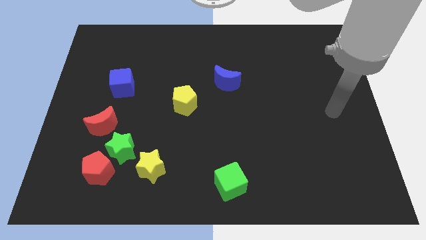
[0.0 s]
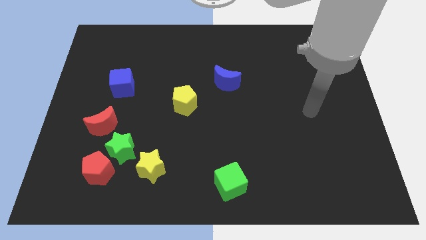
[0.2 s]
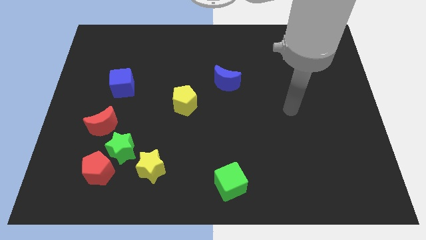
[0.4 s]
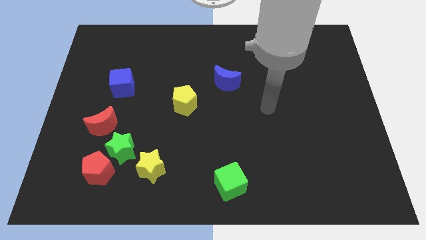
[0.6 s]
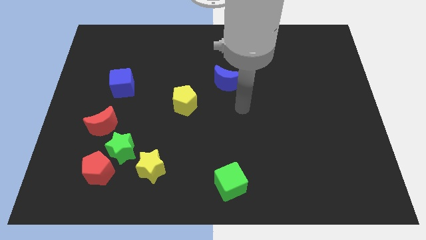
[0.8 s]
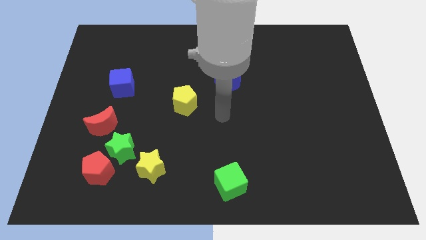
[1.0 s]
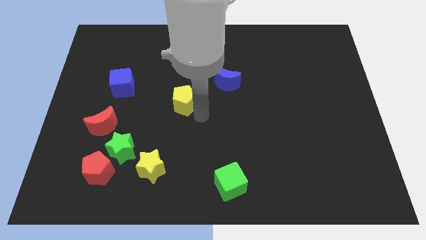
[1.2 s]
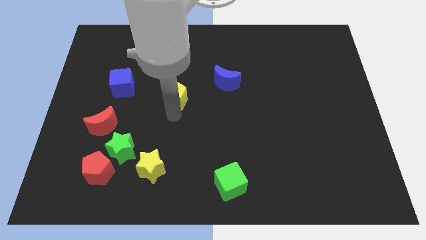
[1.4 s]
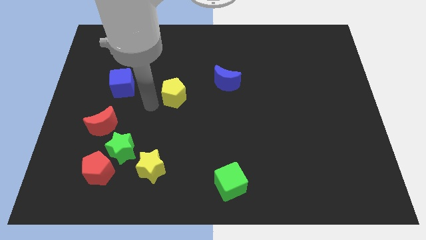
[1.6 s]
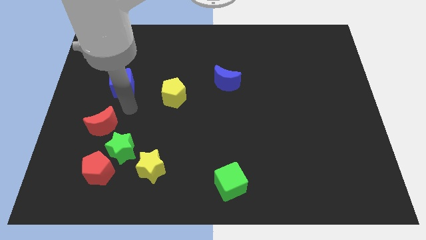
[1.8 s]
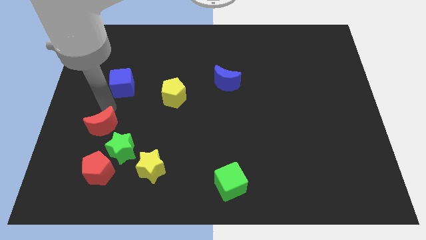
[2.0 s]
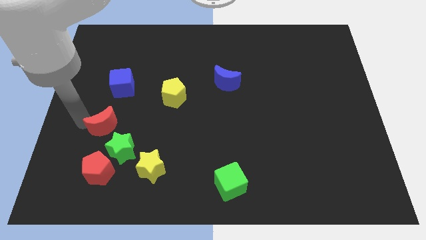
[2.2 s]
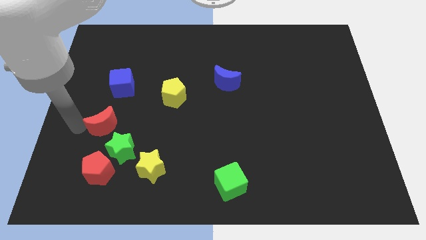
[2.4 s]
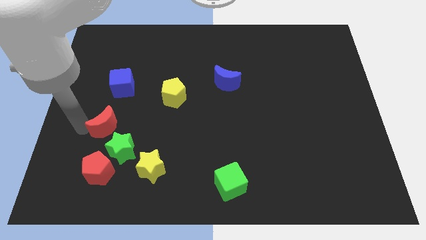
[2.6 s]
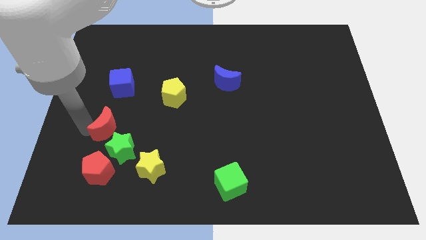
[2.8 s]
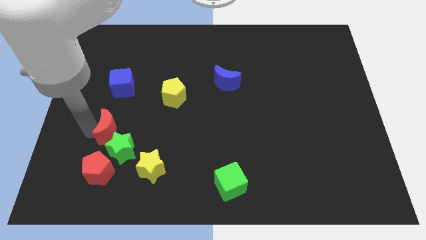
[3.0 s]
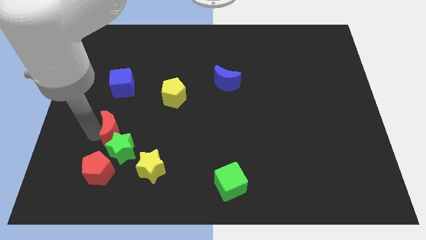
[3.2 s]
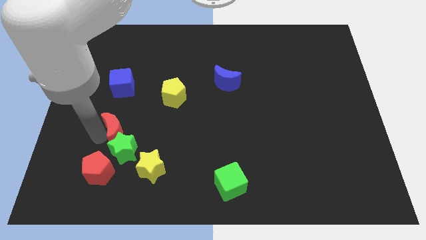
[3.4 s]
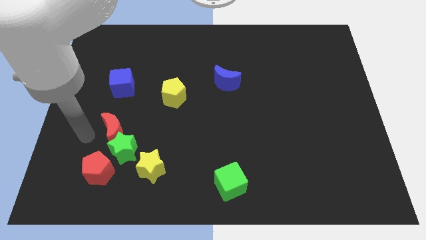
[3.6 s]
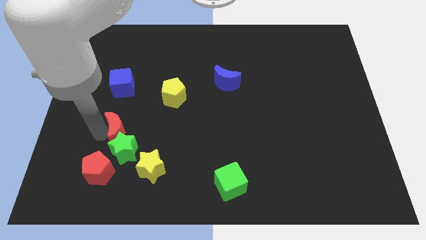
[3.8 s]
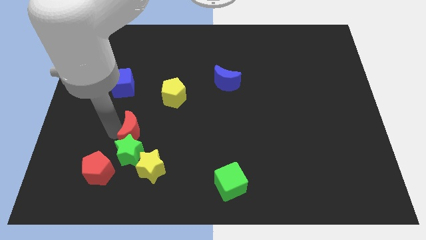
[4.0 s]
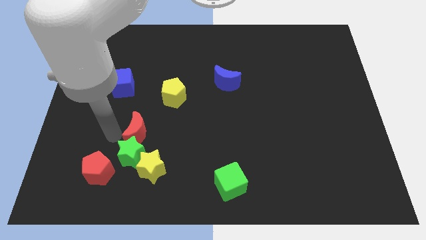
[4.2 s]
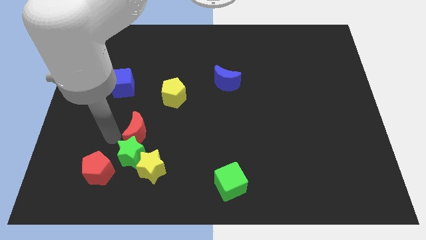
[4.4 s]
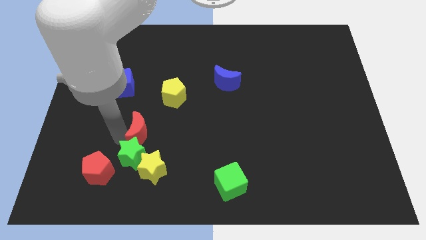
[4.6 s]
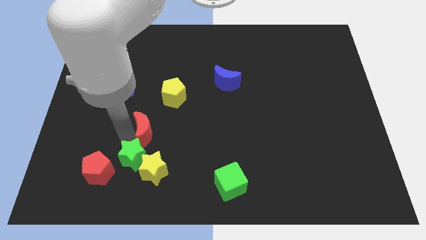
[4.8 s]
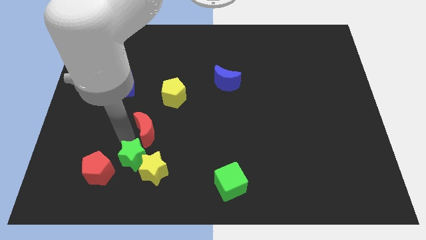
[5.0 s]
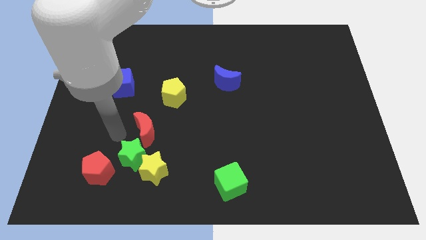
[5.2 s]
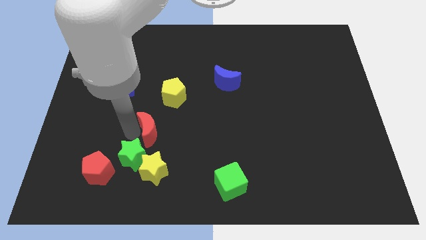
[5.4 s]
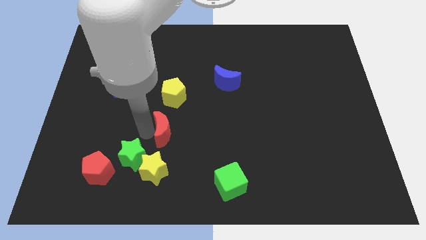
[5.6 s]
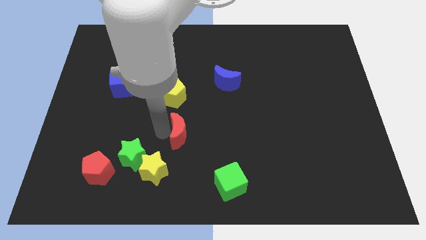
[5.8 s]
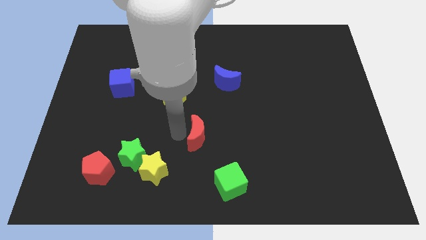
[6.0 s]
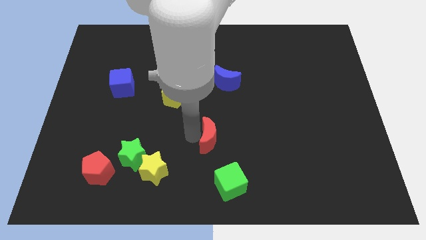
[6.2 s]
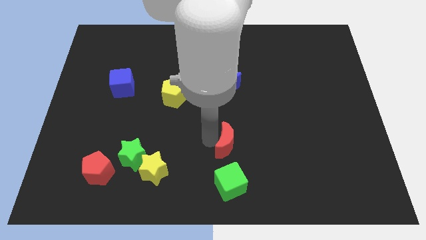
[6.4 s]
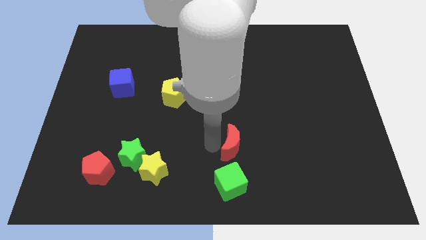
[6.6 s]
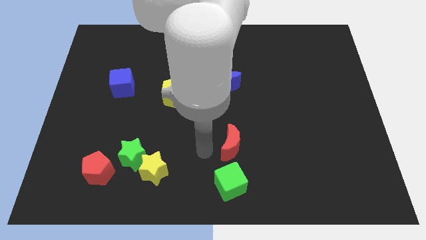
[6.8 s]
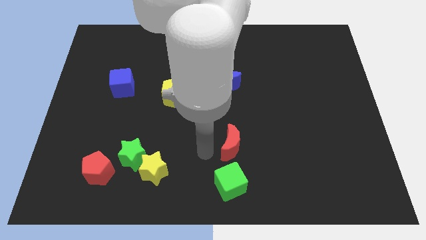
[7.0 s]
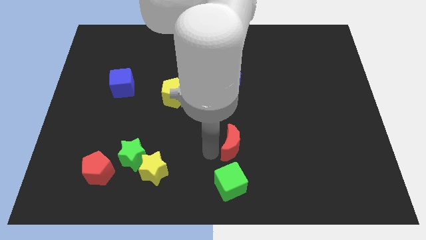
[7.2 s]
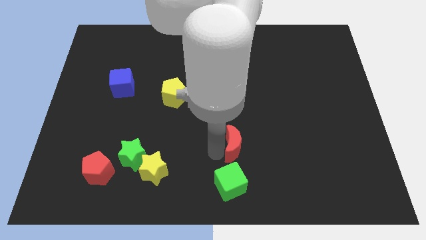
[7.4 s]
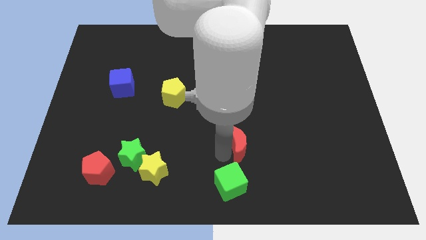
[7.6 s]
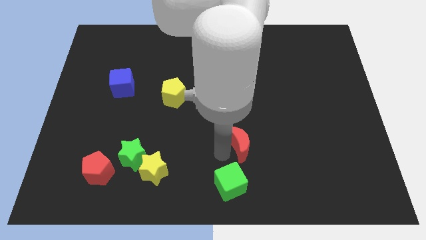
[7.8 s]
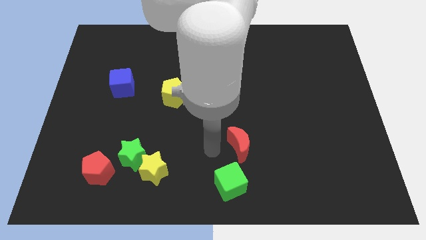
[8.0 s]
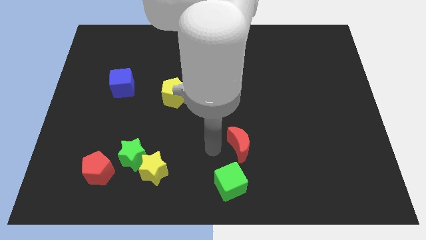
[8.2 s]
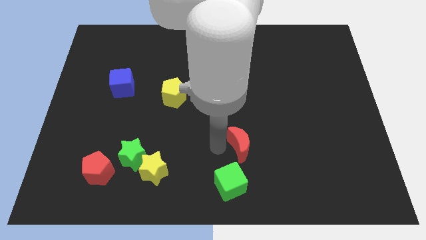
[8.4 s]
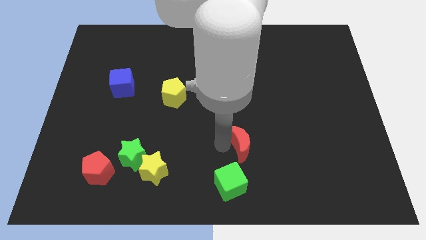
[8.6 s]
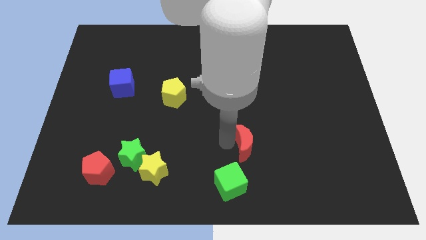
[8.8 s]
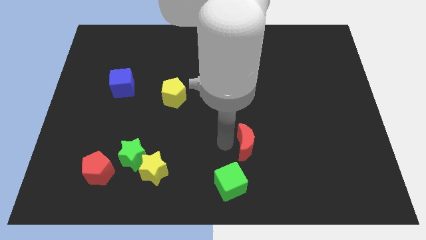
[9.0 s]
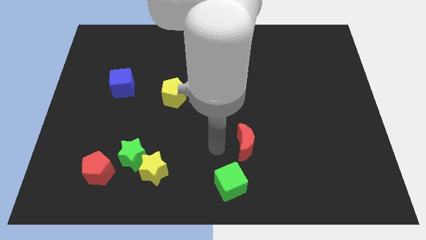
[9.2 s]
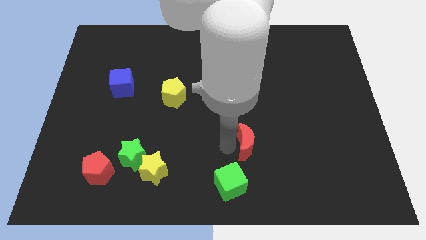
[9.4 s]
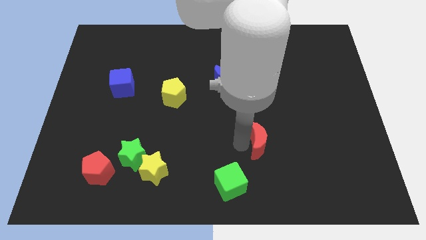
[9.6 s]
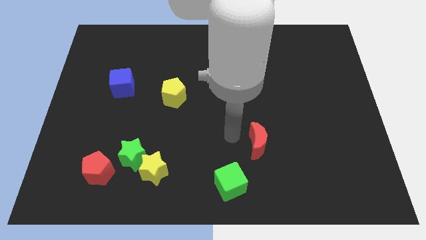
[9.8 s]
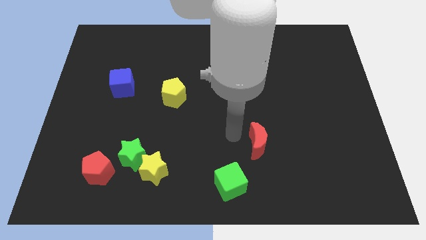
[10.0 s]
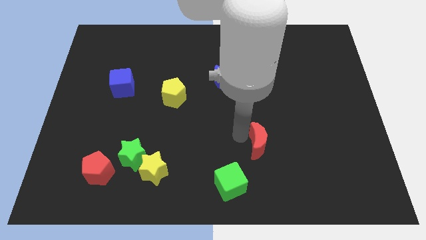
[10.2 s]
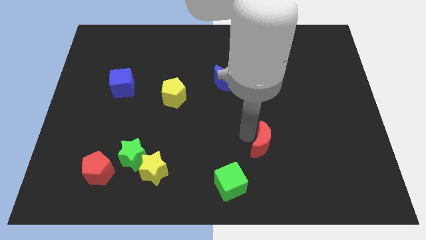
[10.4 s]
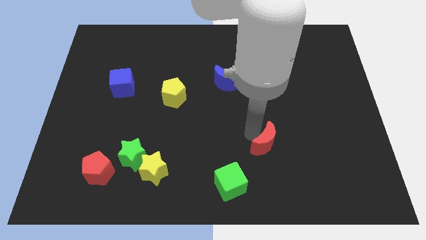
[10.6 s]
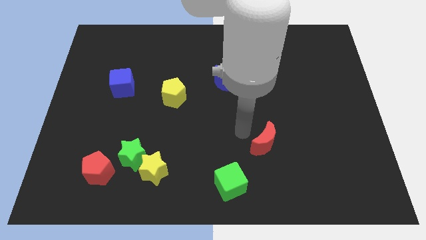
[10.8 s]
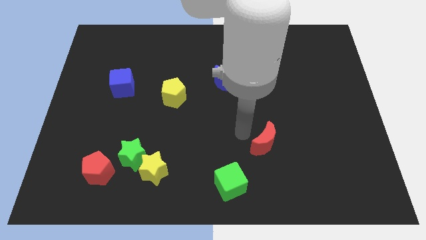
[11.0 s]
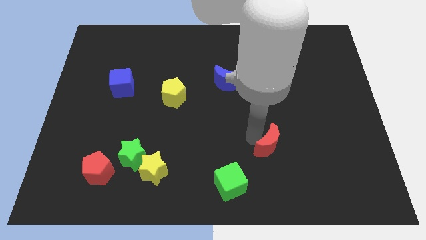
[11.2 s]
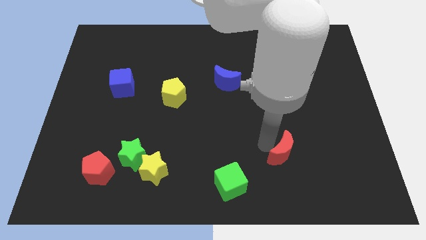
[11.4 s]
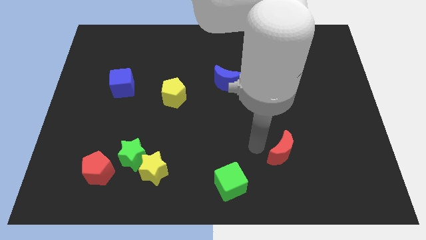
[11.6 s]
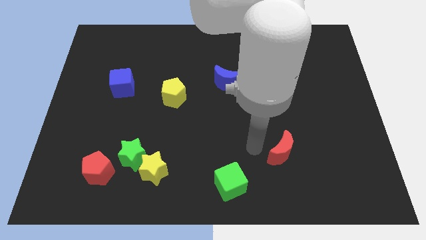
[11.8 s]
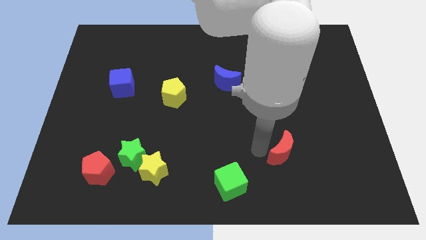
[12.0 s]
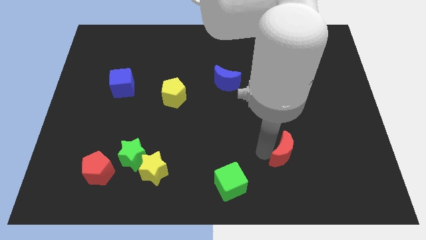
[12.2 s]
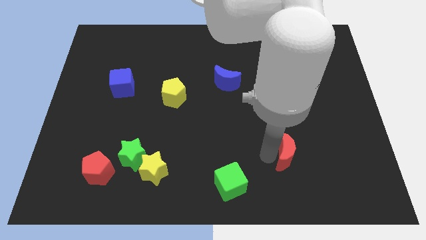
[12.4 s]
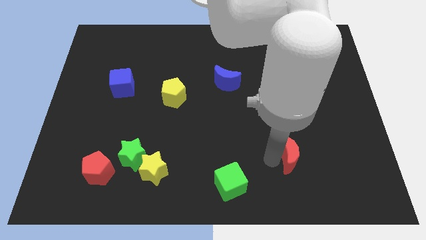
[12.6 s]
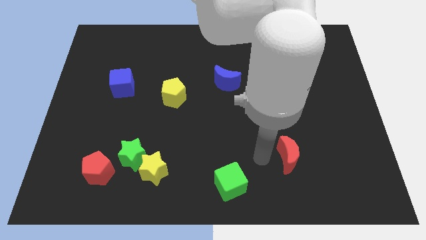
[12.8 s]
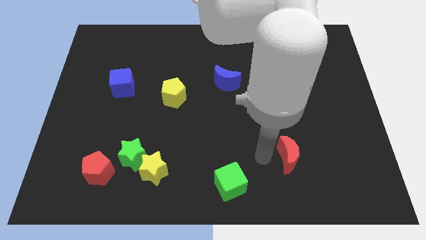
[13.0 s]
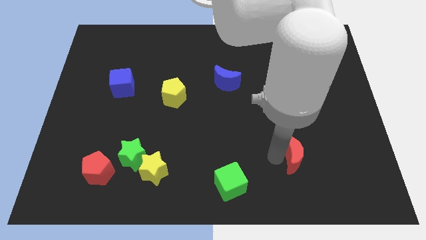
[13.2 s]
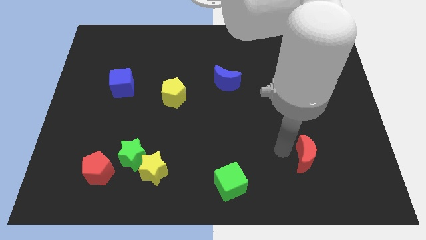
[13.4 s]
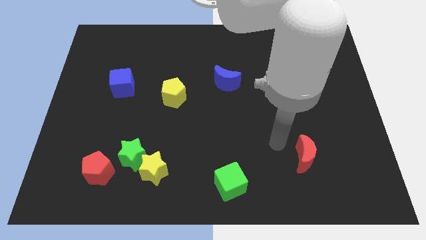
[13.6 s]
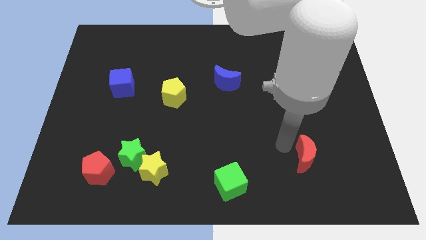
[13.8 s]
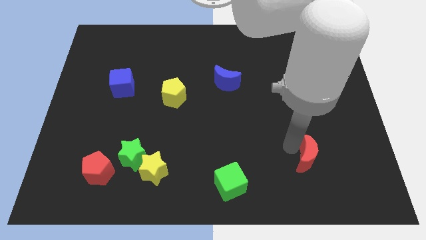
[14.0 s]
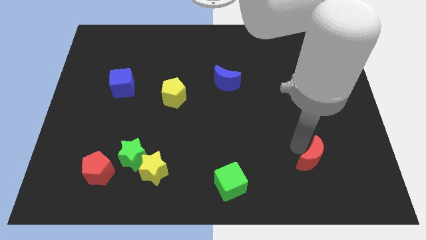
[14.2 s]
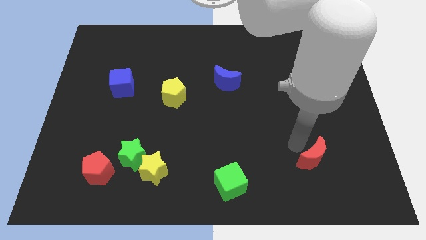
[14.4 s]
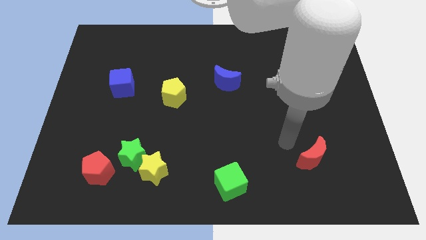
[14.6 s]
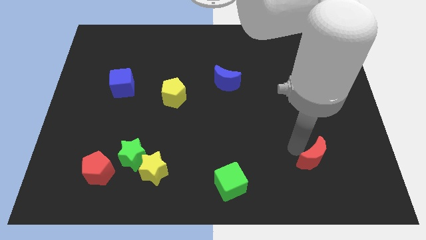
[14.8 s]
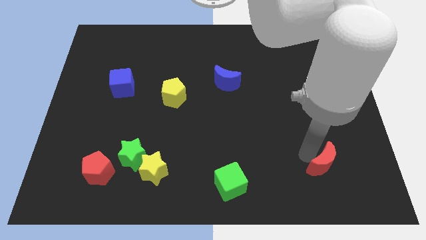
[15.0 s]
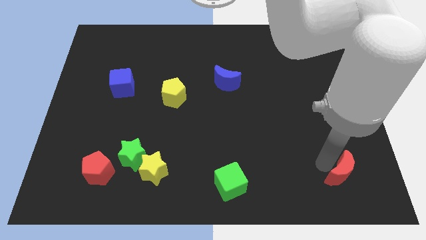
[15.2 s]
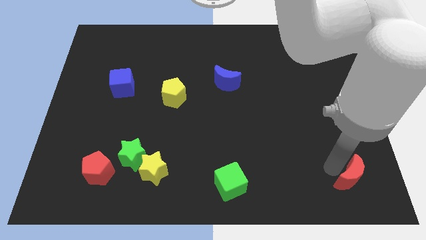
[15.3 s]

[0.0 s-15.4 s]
slide the red moon to the bottom right of the board
